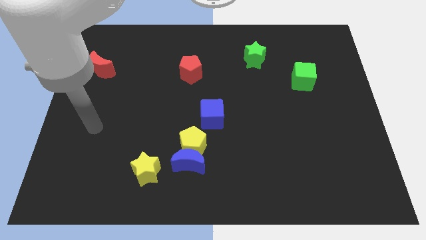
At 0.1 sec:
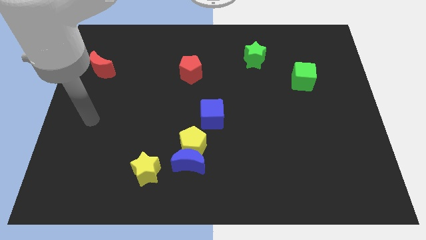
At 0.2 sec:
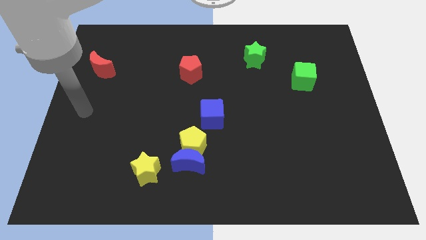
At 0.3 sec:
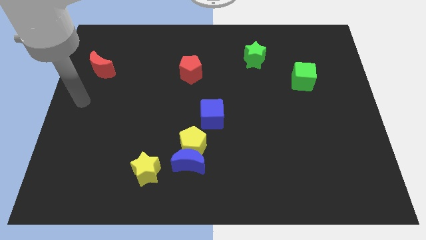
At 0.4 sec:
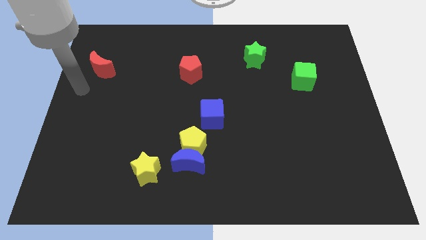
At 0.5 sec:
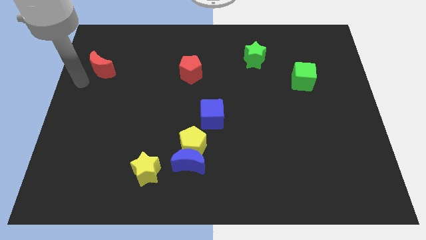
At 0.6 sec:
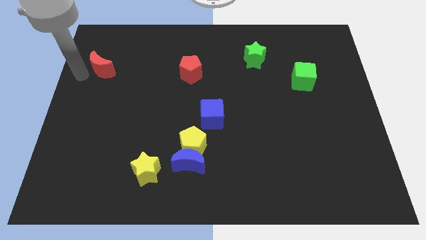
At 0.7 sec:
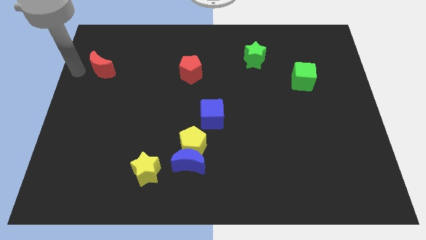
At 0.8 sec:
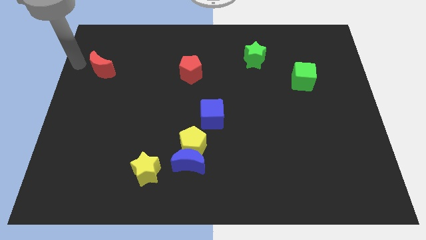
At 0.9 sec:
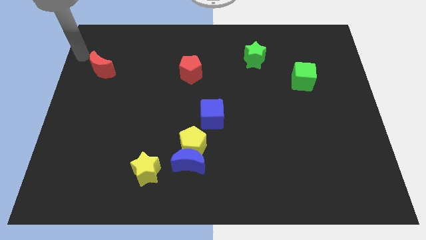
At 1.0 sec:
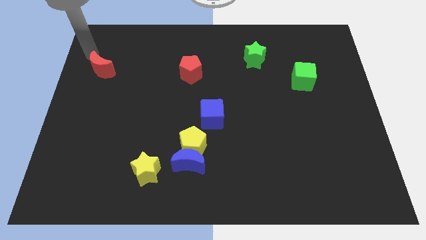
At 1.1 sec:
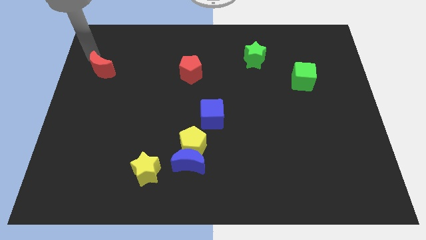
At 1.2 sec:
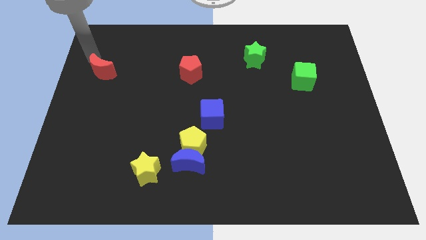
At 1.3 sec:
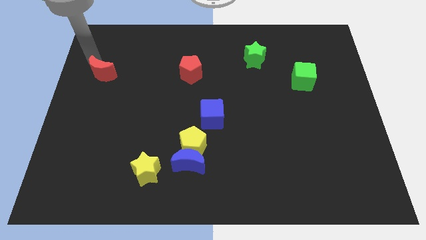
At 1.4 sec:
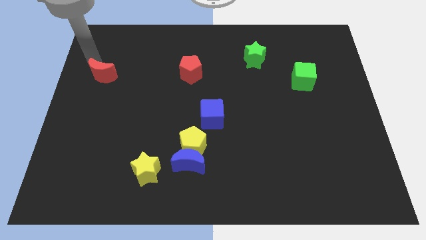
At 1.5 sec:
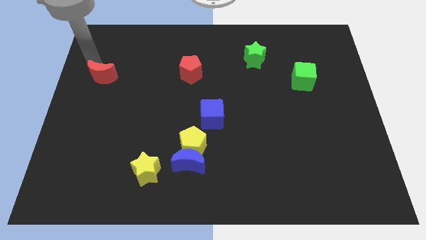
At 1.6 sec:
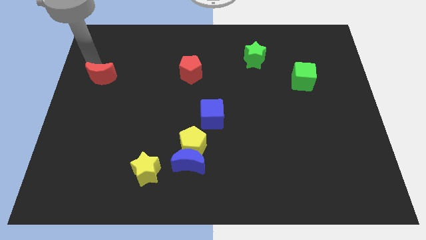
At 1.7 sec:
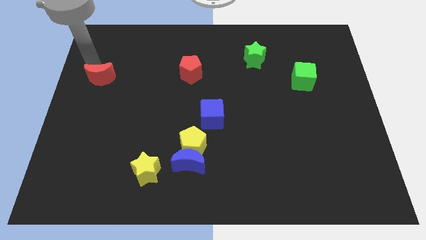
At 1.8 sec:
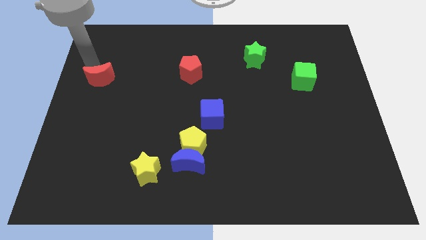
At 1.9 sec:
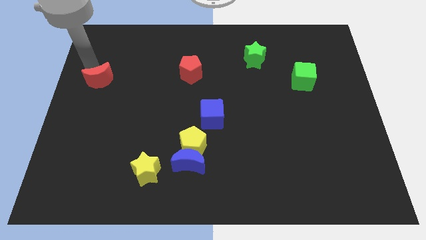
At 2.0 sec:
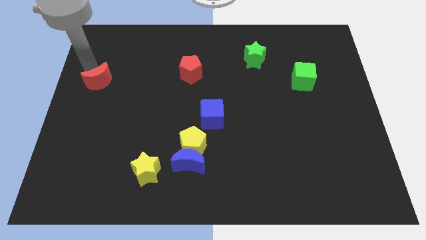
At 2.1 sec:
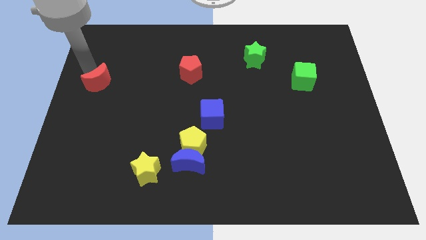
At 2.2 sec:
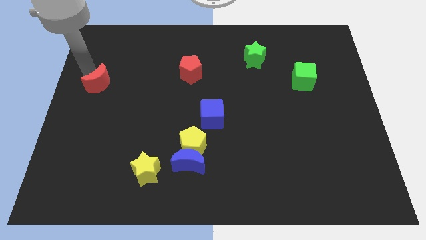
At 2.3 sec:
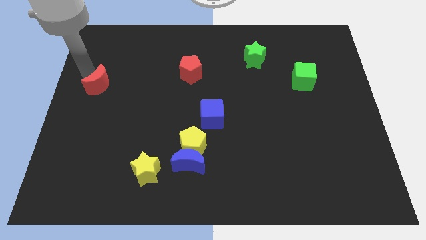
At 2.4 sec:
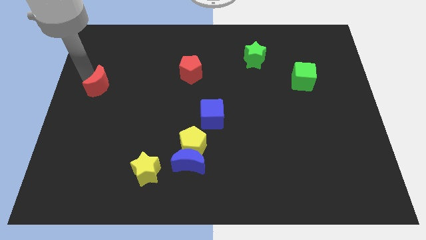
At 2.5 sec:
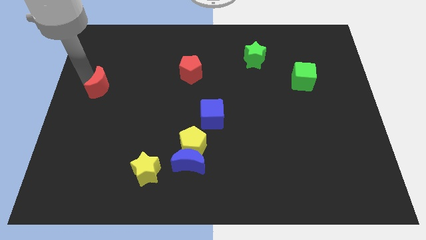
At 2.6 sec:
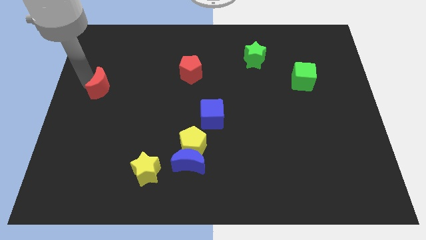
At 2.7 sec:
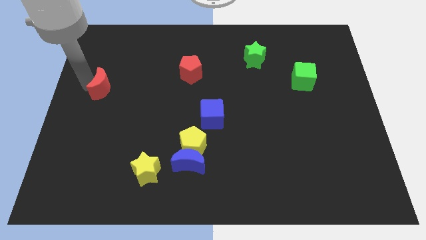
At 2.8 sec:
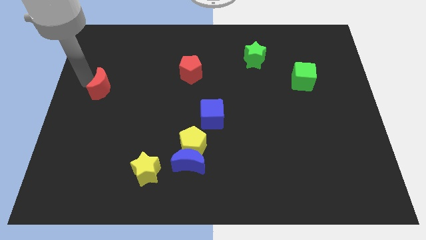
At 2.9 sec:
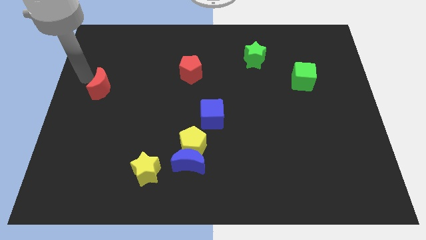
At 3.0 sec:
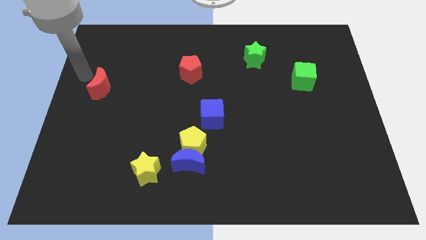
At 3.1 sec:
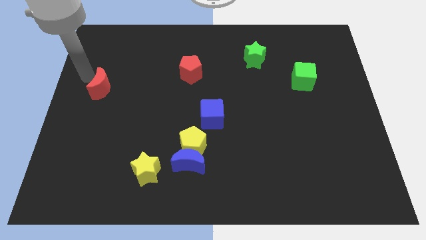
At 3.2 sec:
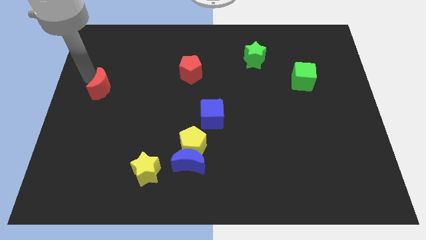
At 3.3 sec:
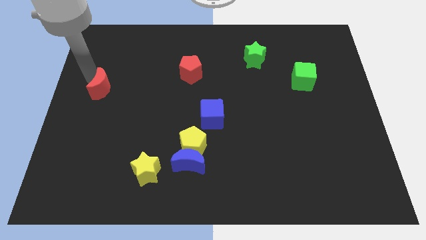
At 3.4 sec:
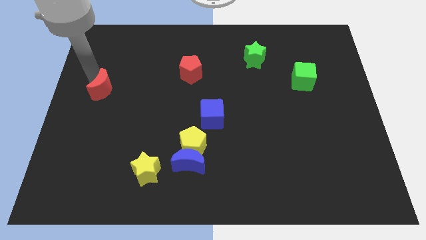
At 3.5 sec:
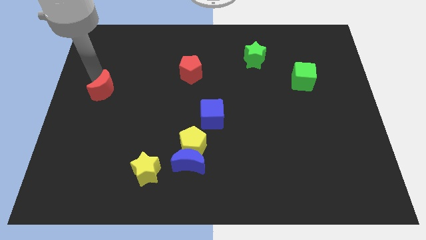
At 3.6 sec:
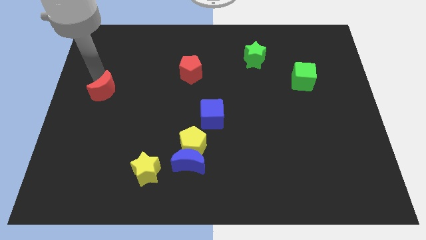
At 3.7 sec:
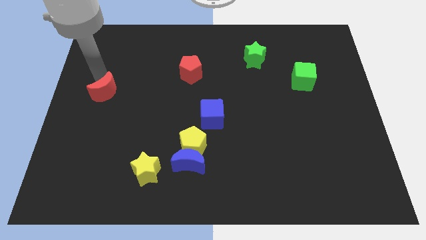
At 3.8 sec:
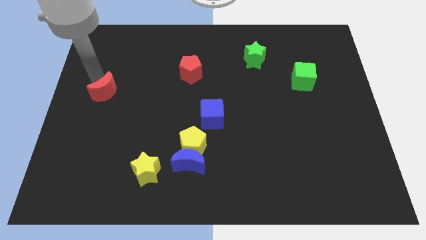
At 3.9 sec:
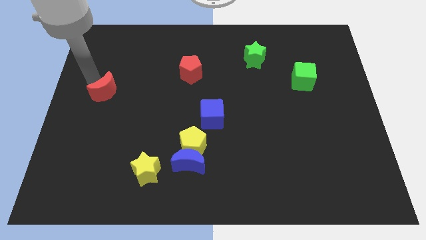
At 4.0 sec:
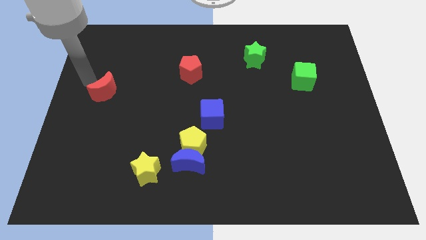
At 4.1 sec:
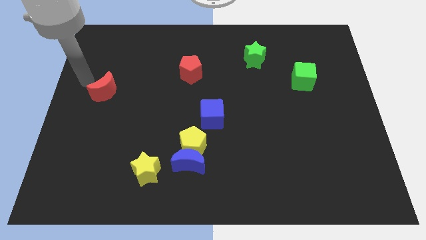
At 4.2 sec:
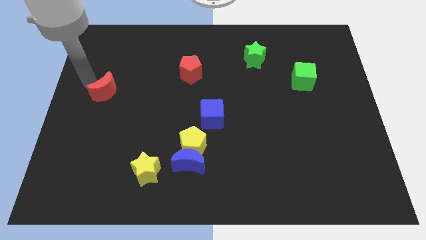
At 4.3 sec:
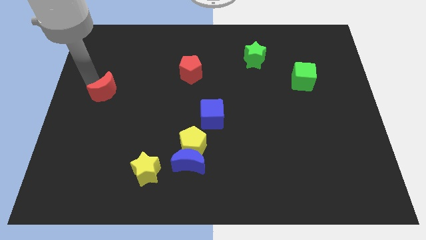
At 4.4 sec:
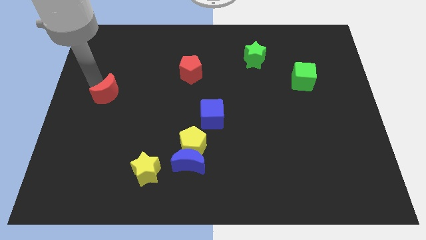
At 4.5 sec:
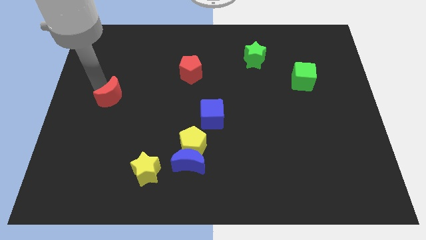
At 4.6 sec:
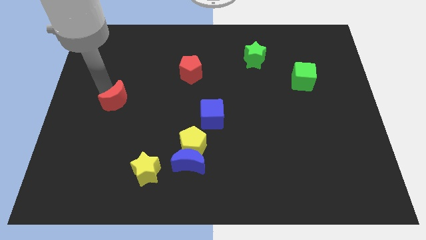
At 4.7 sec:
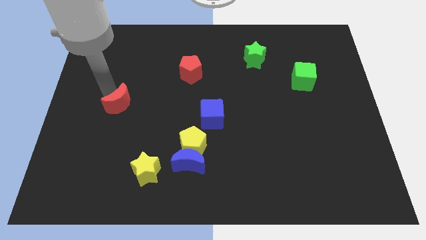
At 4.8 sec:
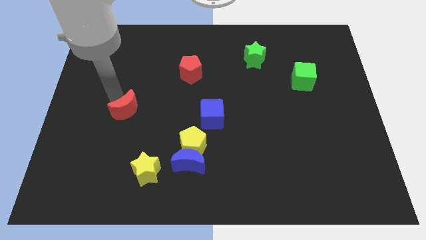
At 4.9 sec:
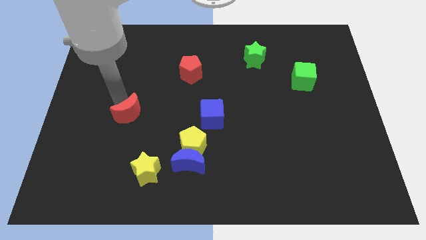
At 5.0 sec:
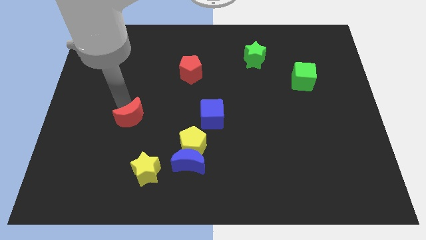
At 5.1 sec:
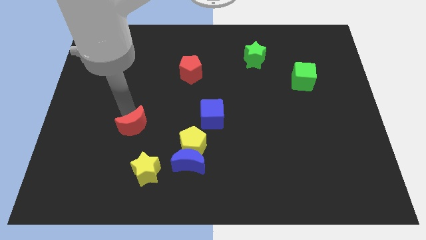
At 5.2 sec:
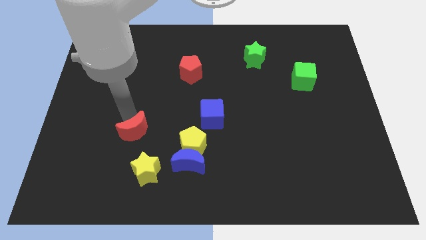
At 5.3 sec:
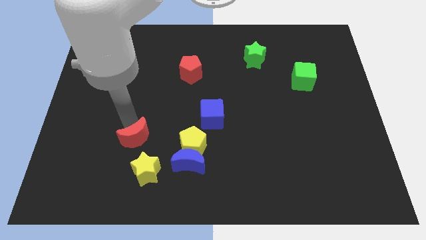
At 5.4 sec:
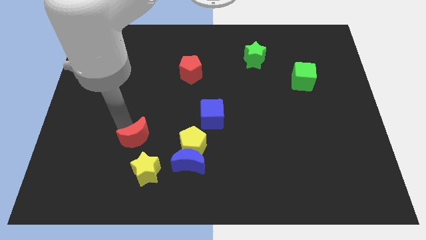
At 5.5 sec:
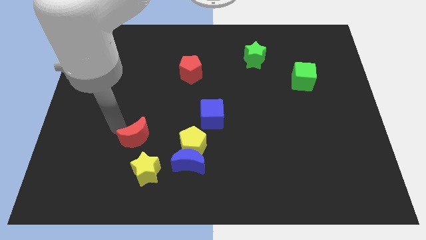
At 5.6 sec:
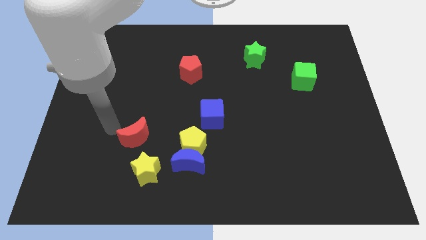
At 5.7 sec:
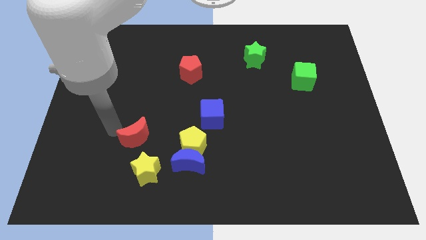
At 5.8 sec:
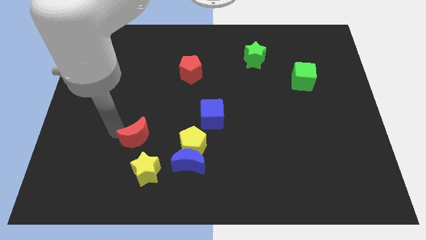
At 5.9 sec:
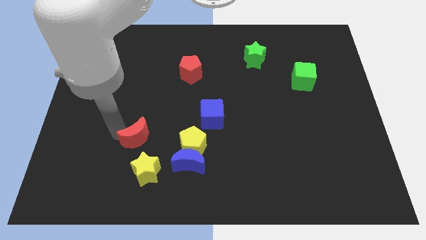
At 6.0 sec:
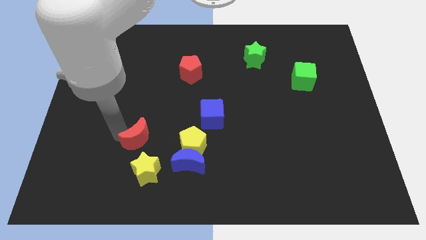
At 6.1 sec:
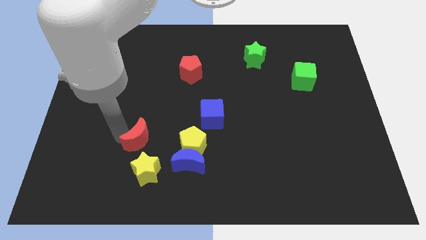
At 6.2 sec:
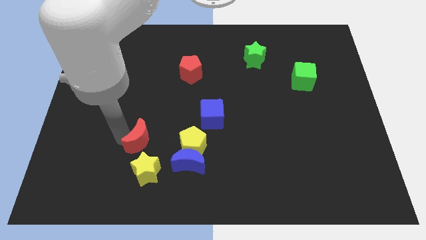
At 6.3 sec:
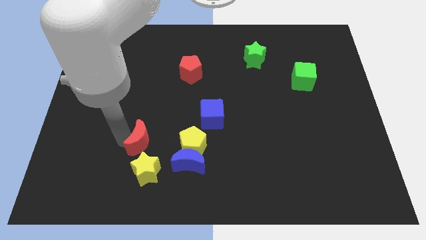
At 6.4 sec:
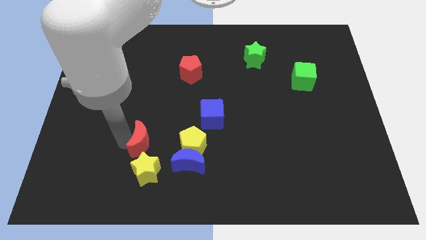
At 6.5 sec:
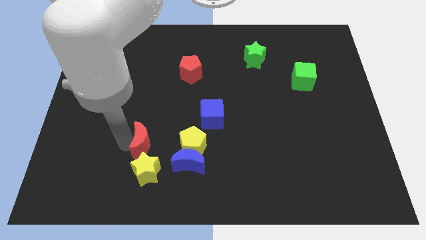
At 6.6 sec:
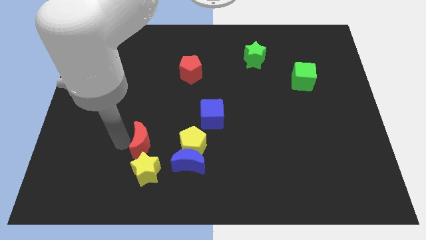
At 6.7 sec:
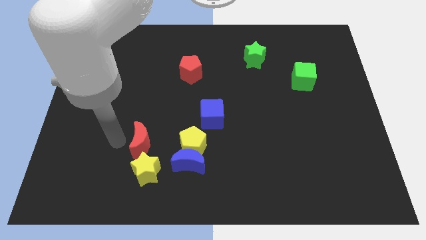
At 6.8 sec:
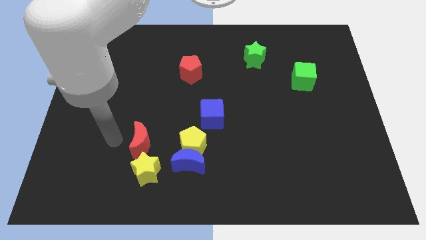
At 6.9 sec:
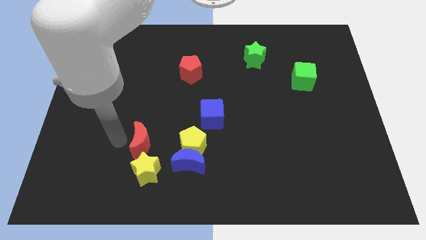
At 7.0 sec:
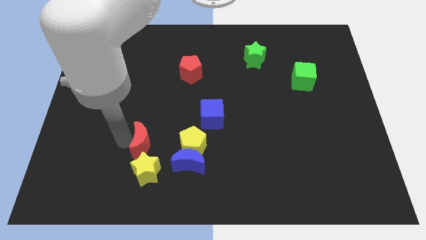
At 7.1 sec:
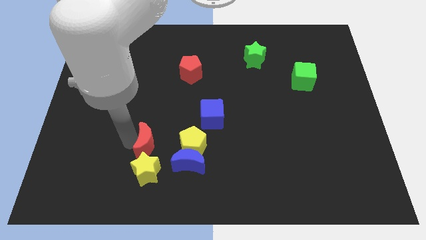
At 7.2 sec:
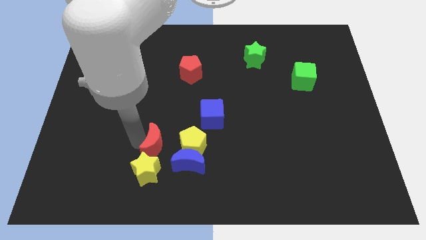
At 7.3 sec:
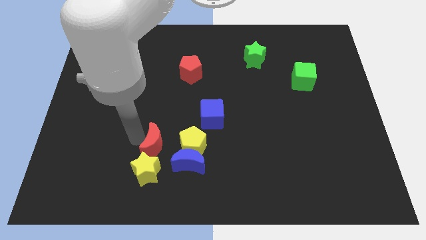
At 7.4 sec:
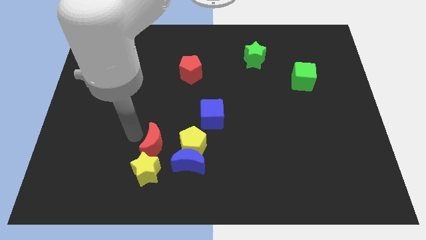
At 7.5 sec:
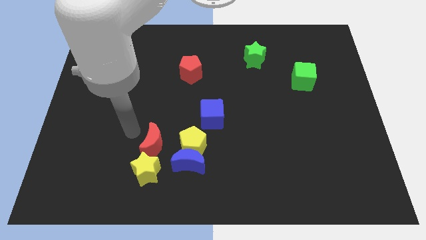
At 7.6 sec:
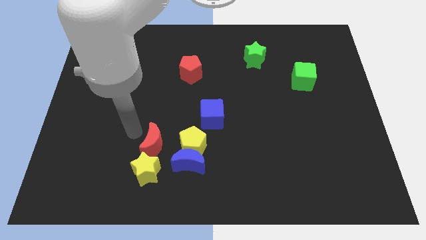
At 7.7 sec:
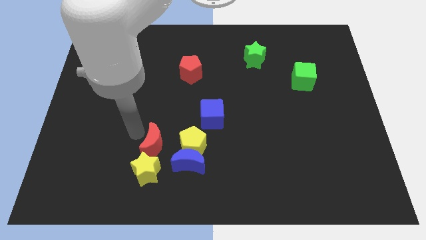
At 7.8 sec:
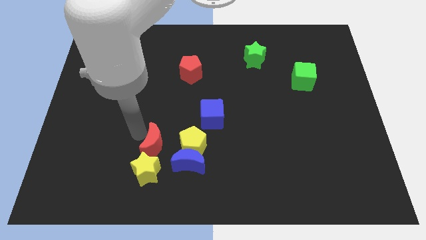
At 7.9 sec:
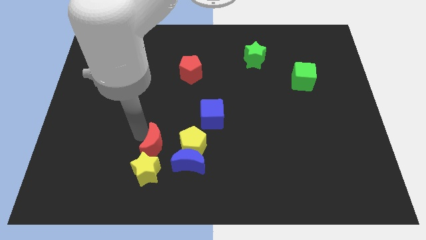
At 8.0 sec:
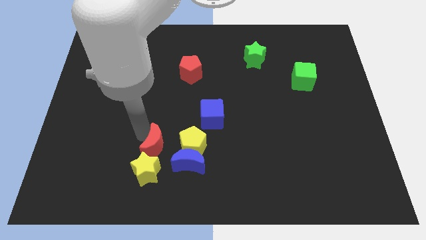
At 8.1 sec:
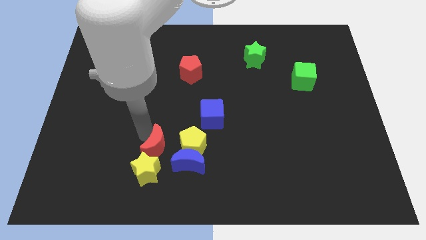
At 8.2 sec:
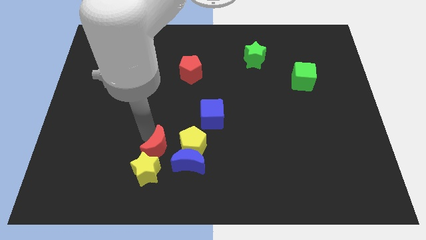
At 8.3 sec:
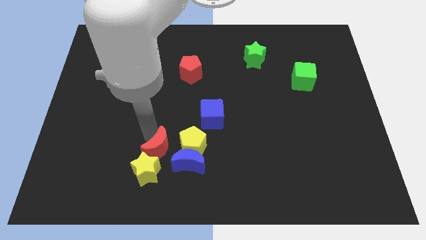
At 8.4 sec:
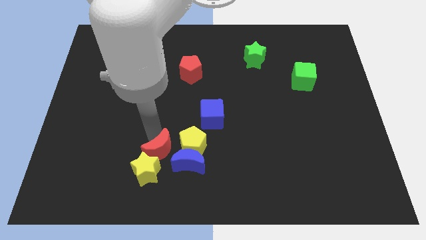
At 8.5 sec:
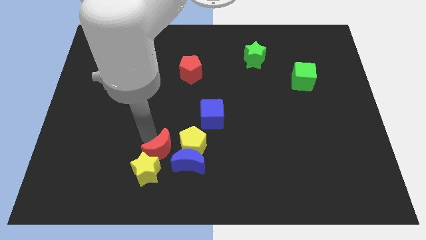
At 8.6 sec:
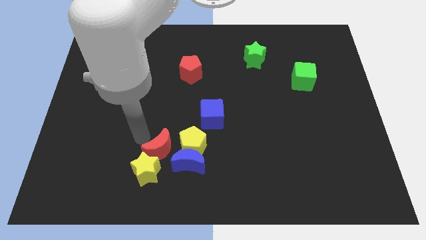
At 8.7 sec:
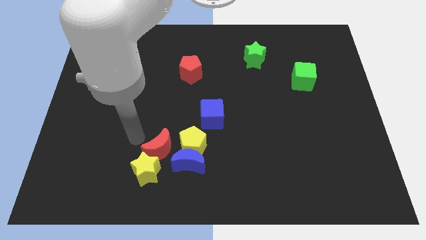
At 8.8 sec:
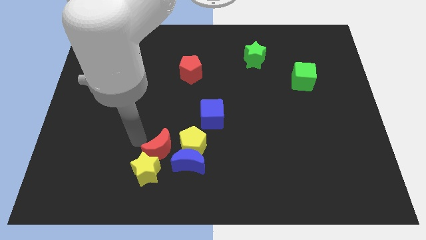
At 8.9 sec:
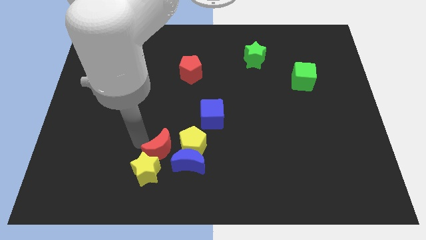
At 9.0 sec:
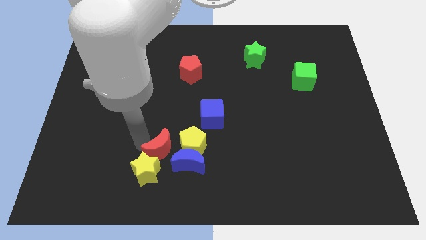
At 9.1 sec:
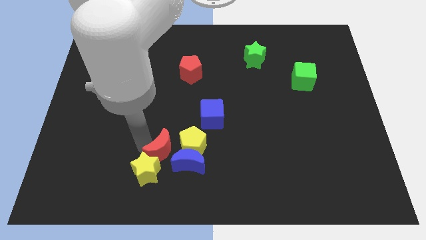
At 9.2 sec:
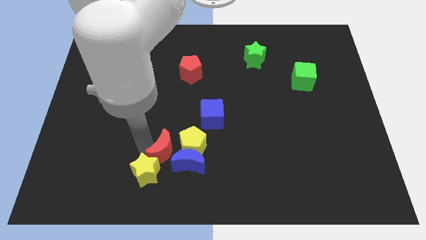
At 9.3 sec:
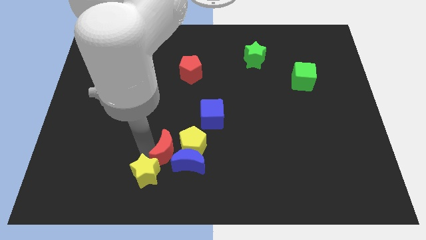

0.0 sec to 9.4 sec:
put the red moon towards the blue moon
